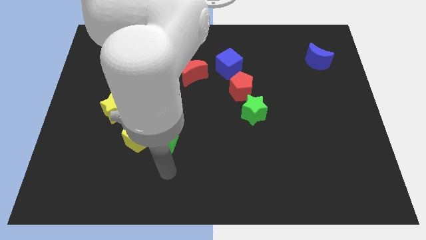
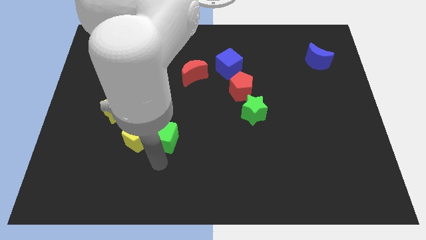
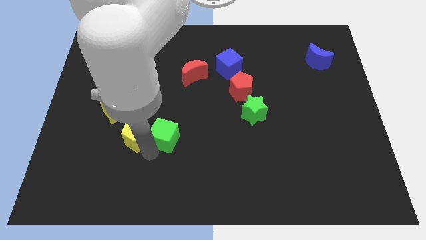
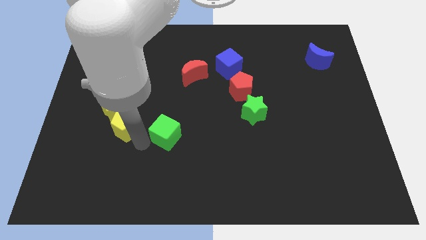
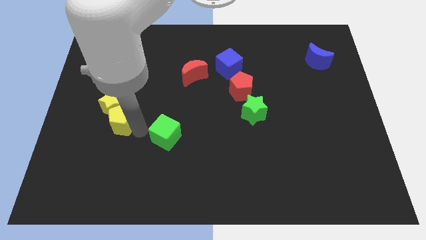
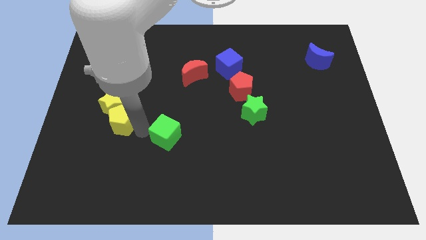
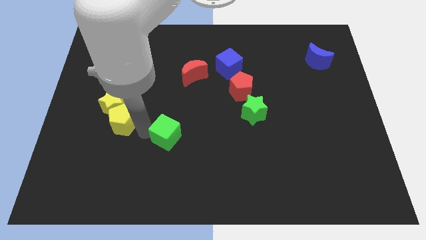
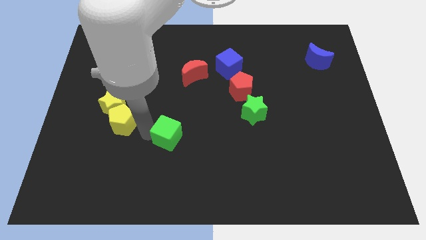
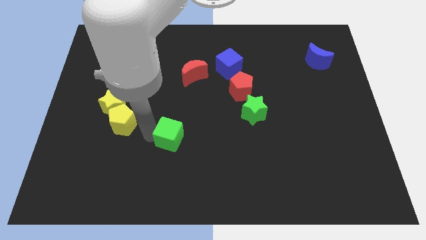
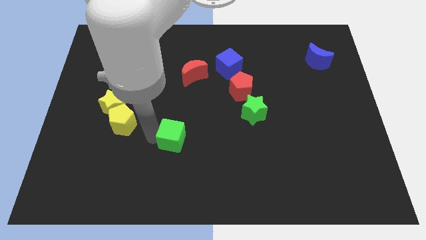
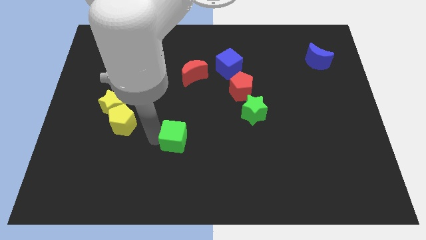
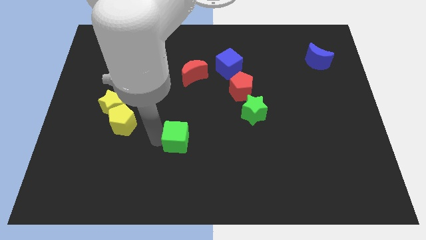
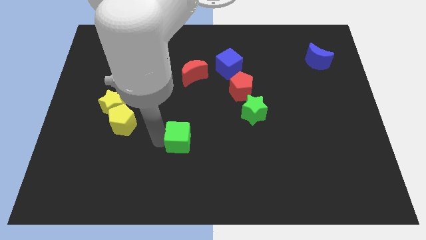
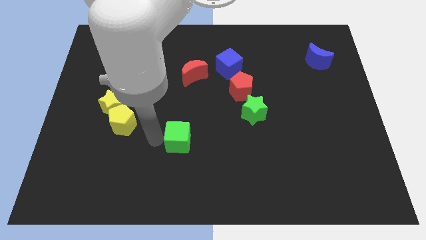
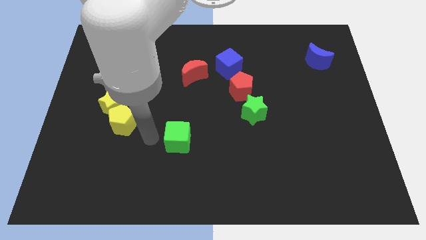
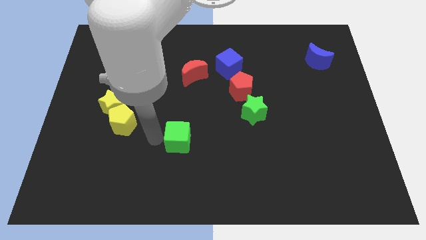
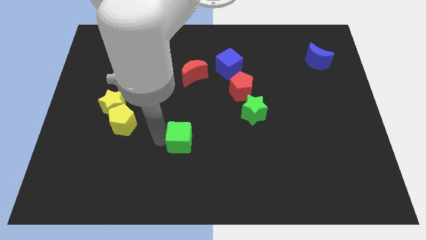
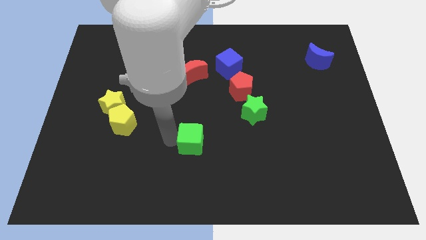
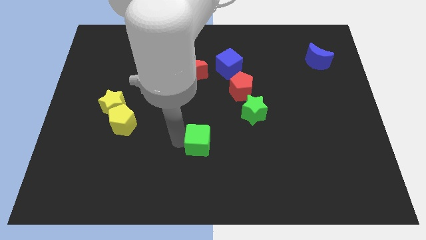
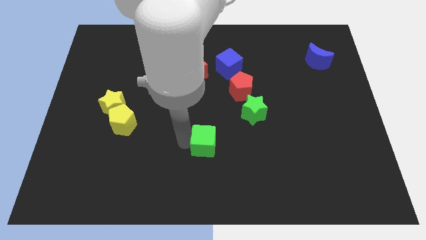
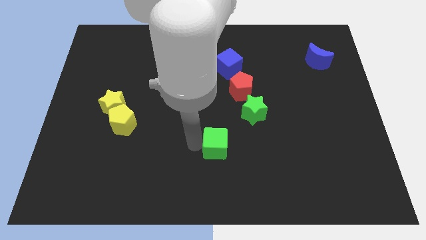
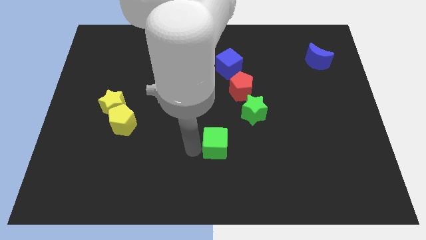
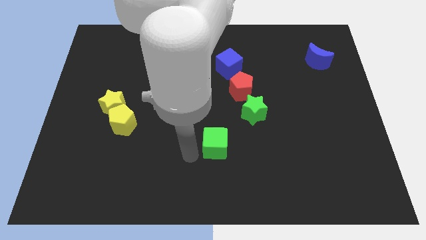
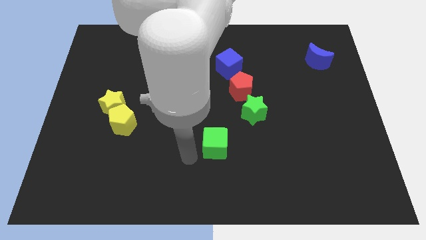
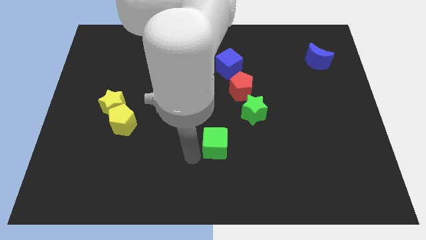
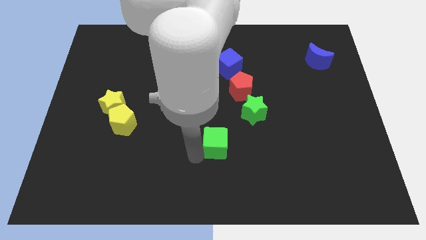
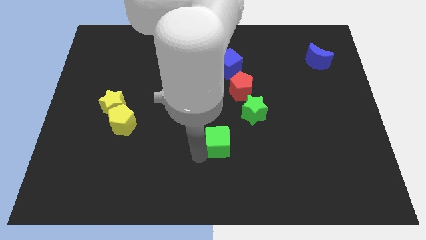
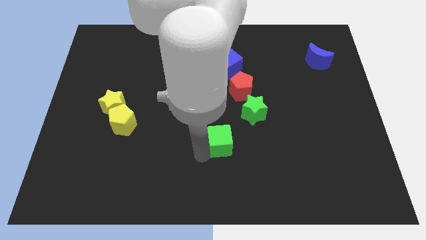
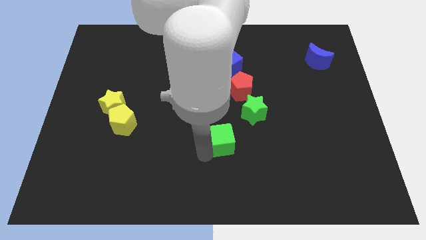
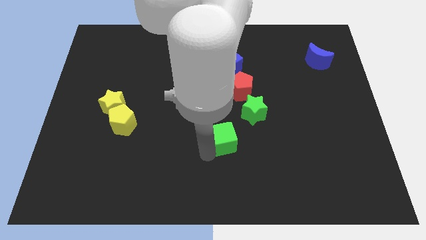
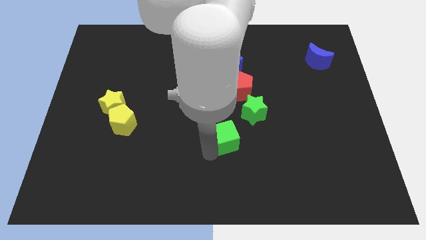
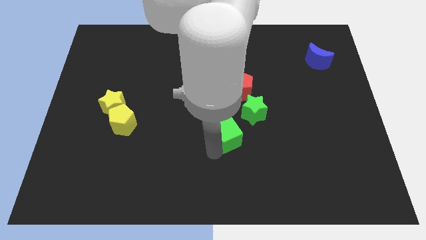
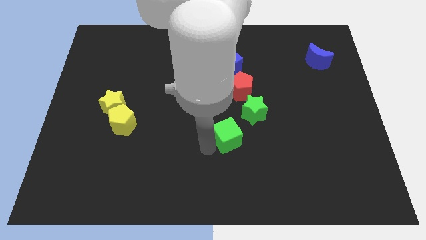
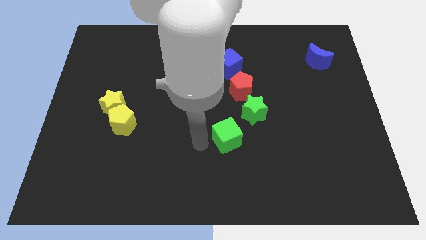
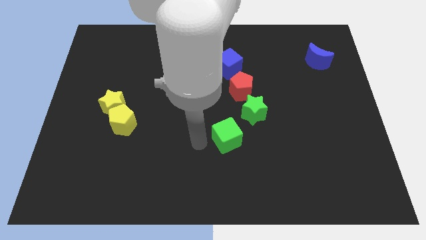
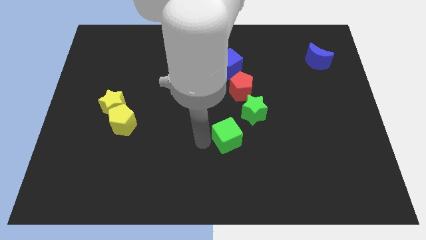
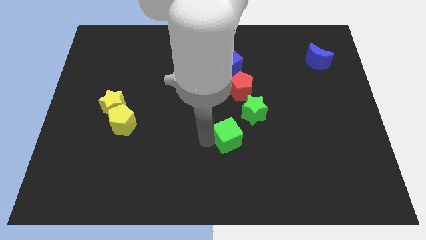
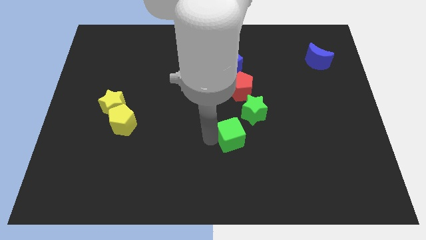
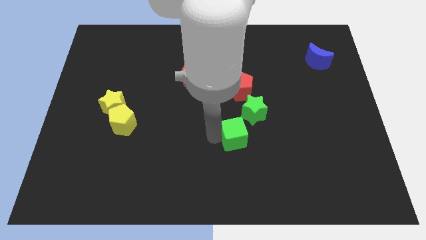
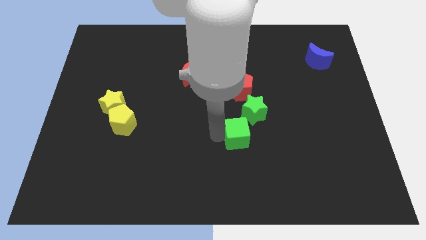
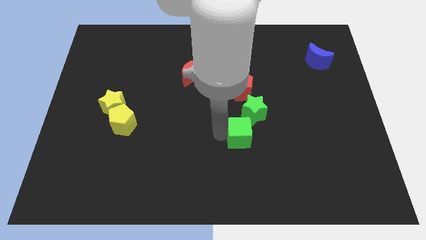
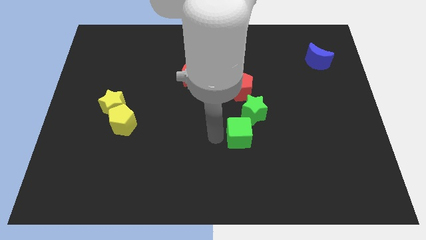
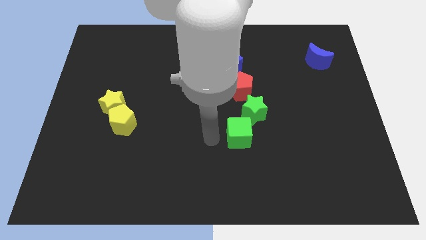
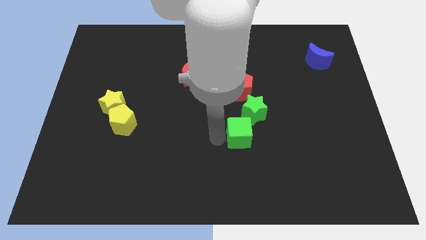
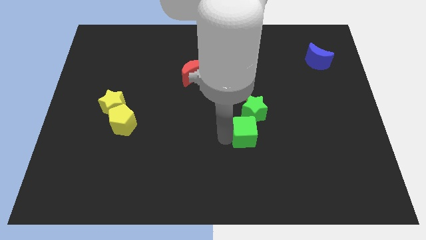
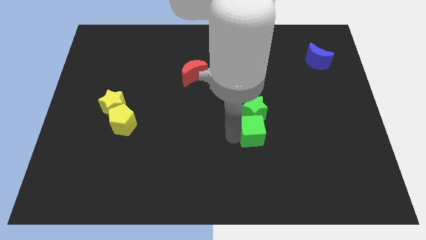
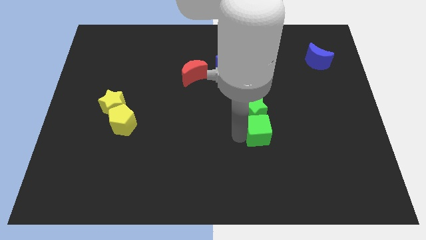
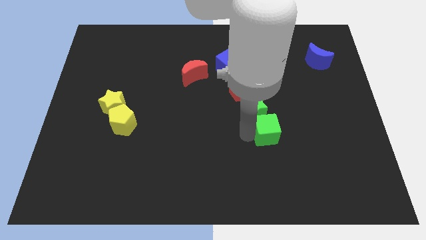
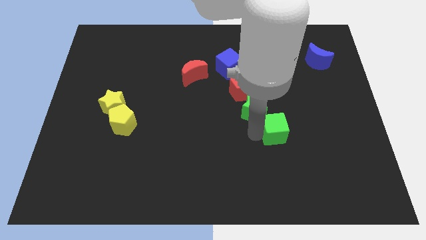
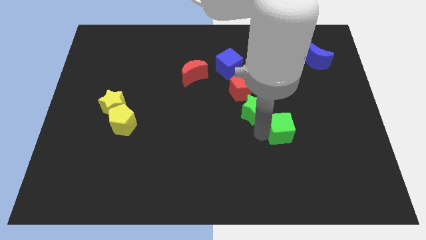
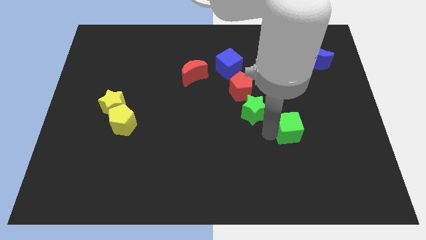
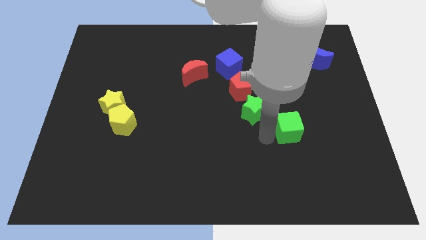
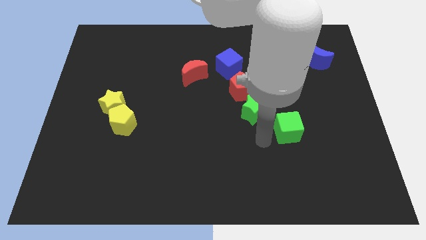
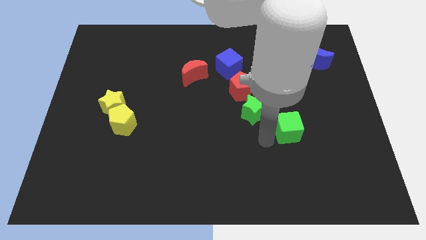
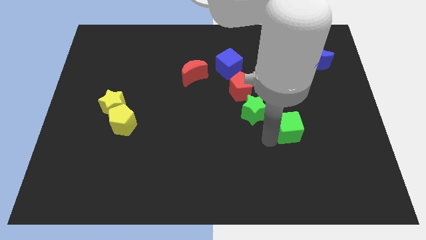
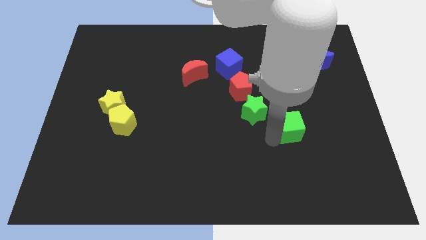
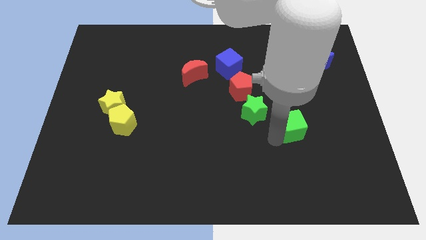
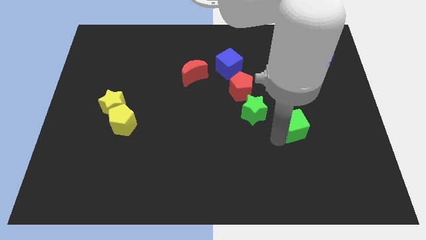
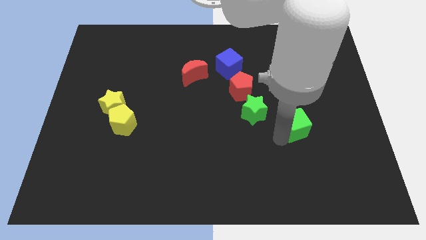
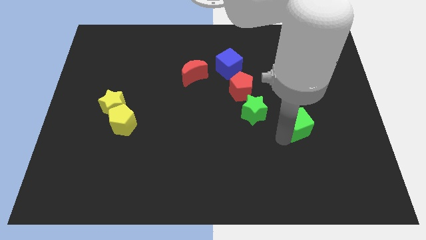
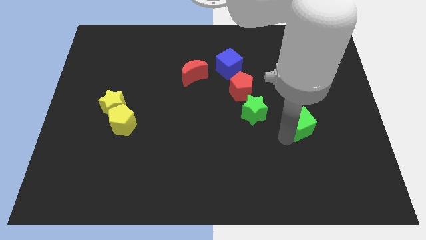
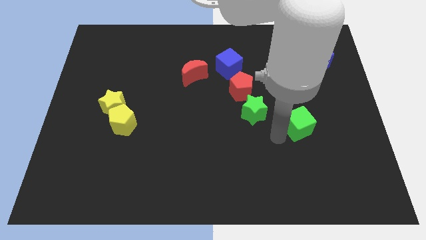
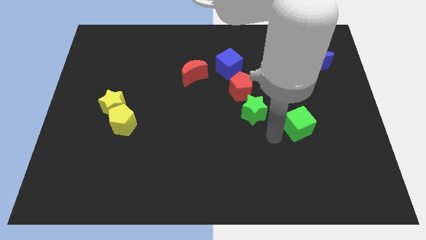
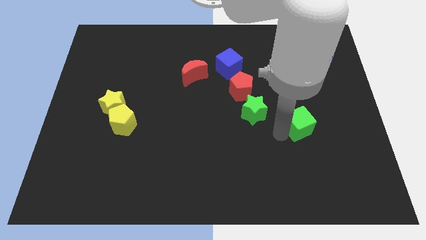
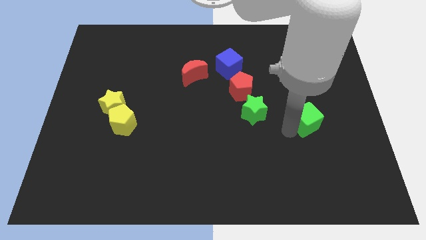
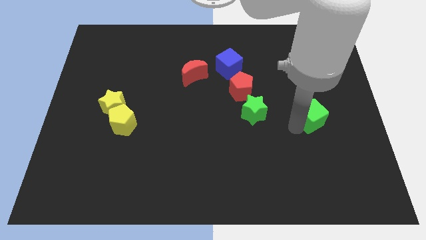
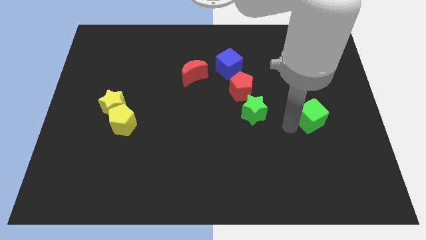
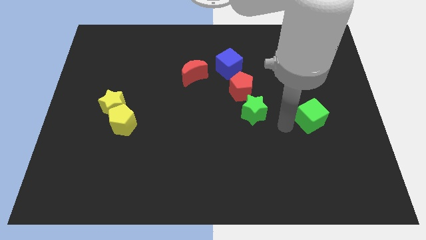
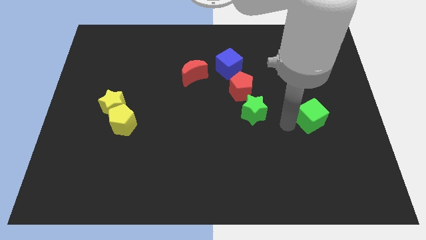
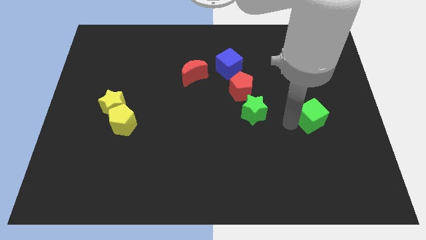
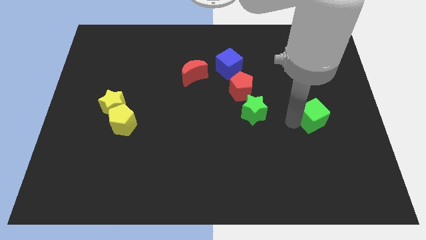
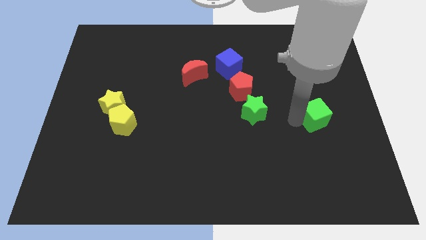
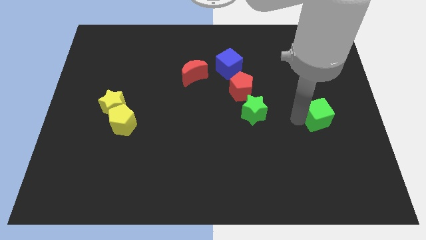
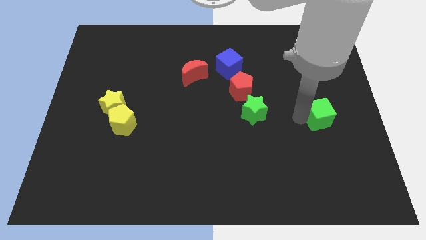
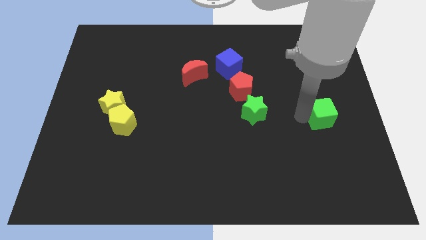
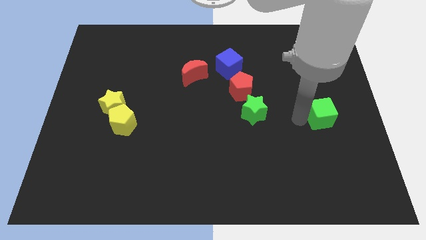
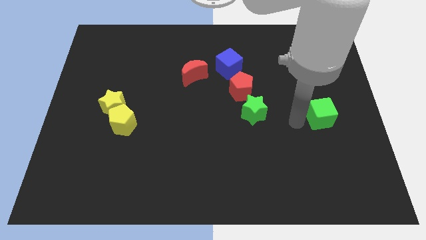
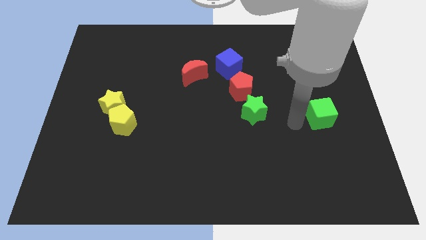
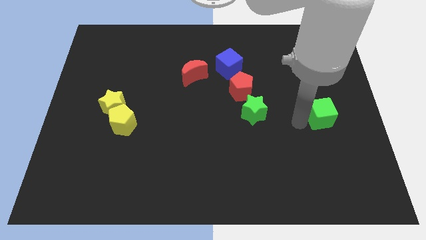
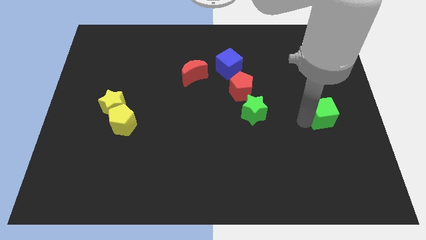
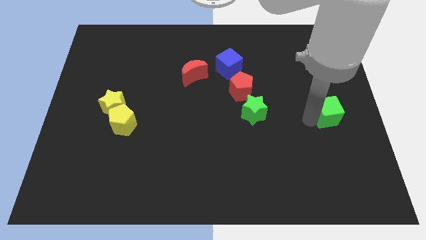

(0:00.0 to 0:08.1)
slide the green cube to the center right
